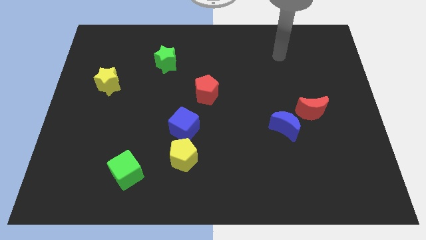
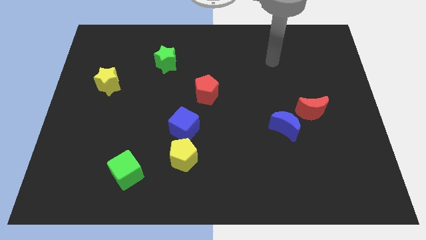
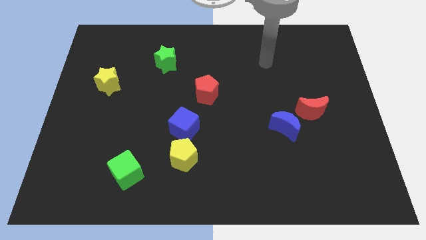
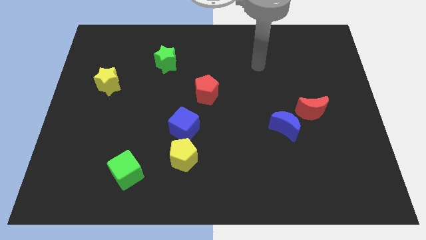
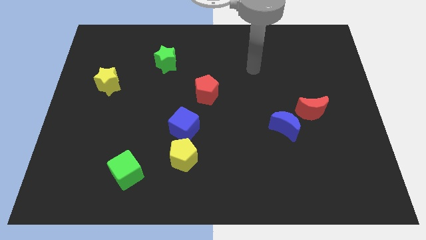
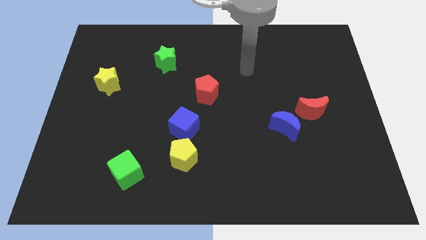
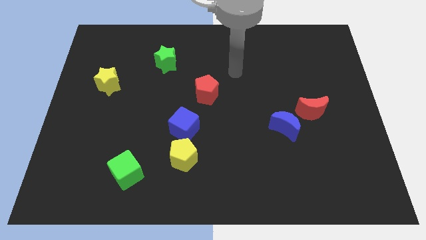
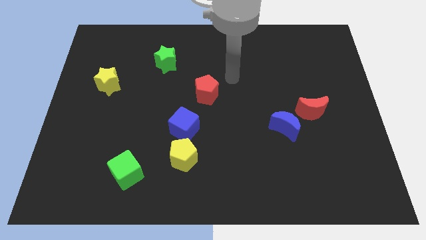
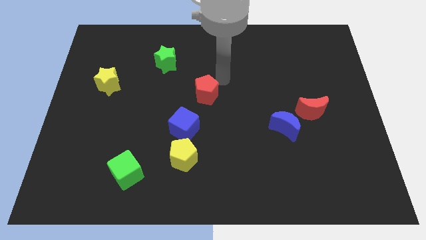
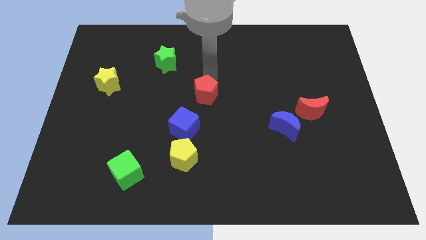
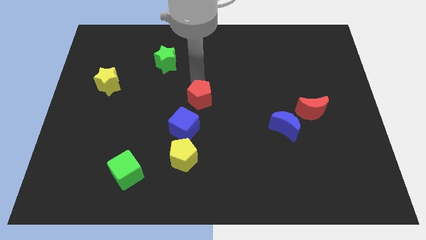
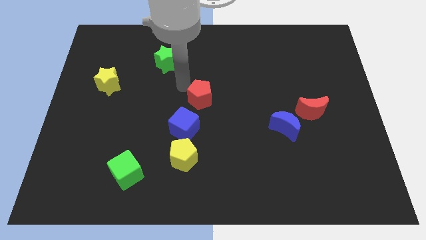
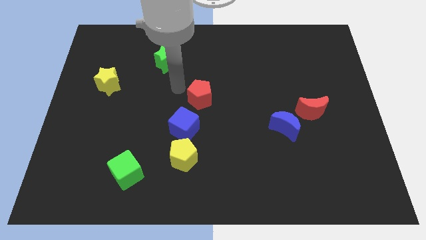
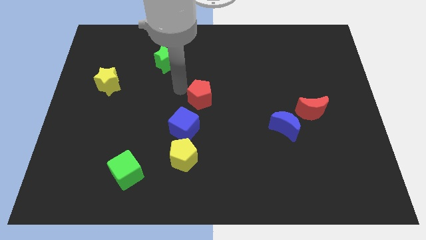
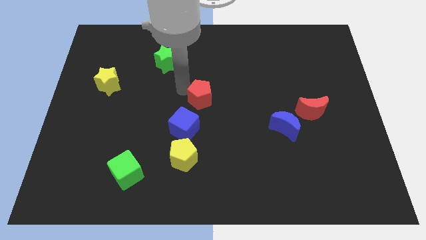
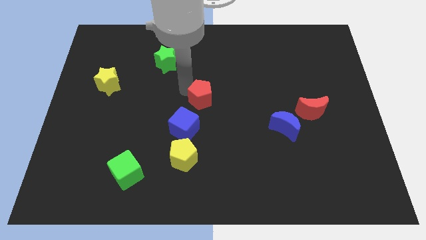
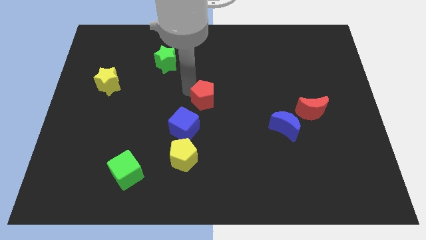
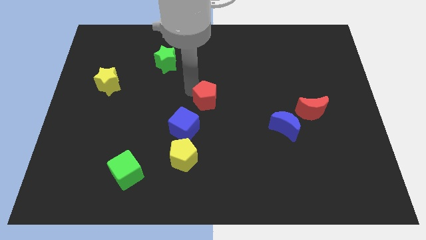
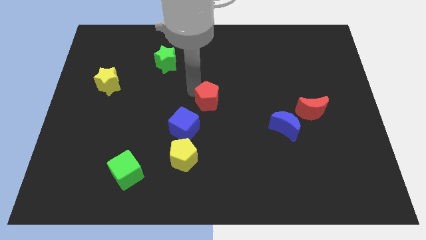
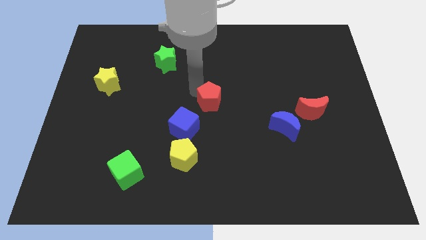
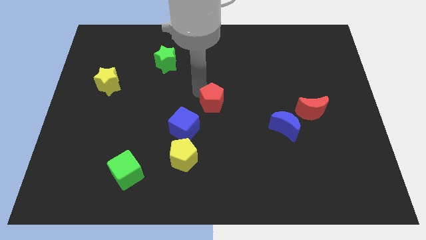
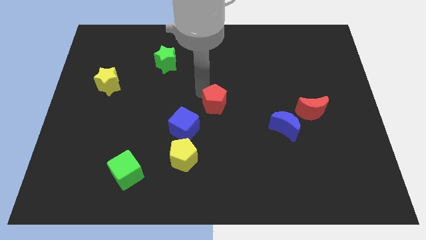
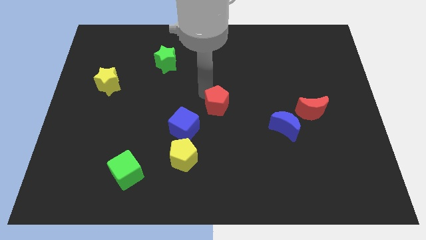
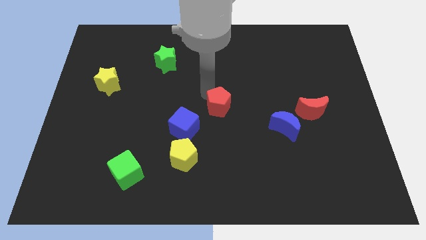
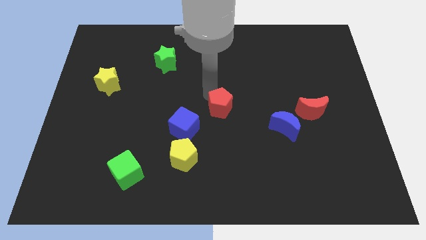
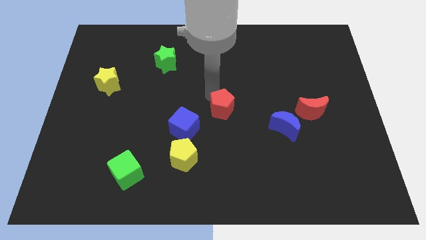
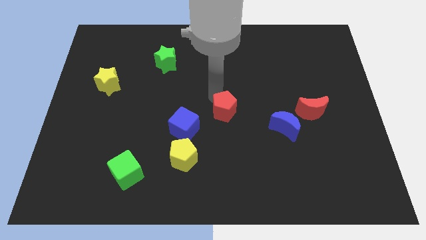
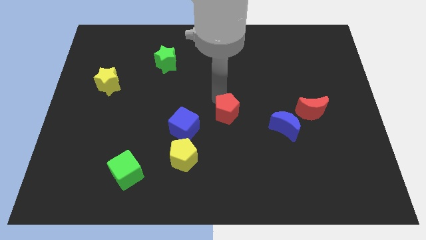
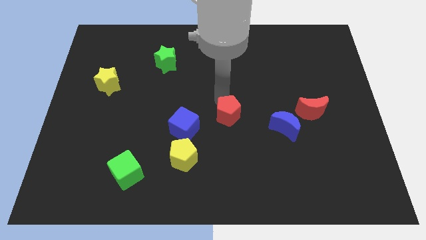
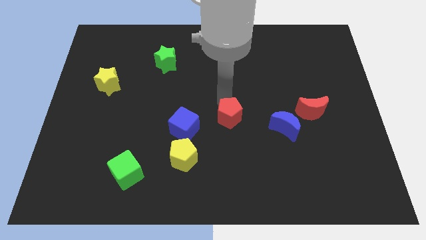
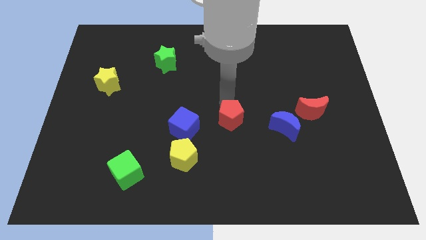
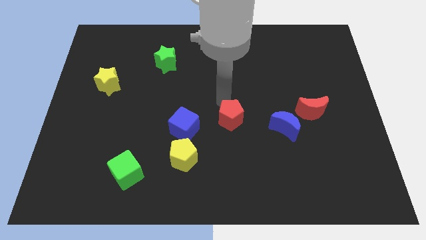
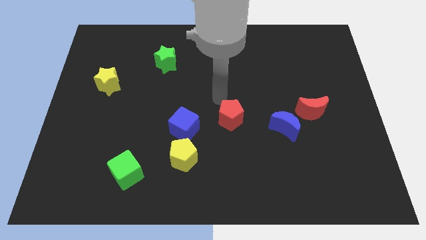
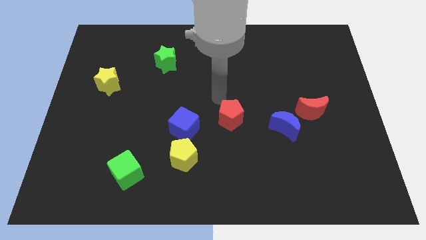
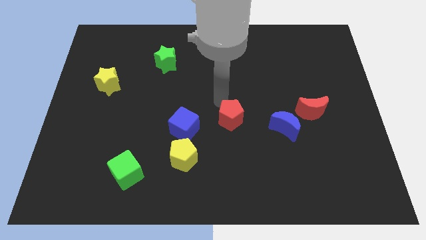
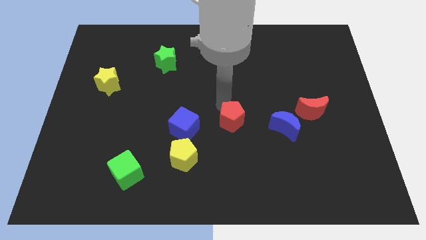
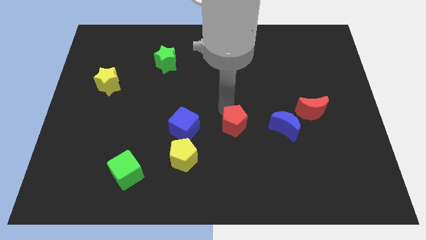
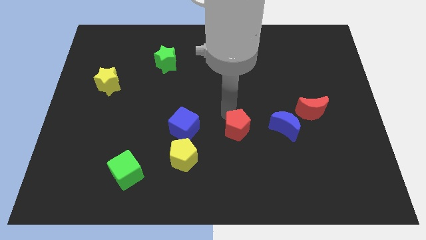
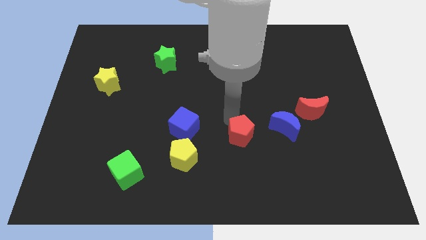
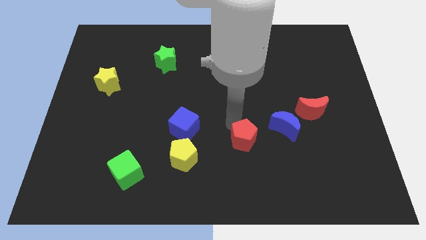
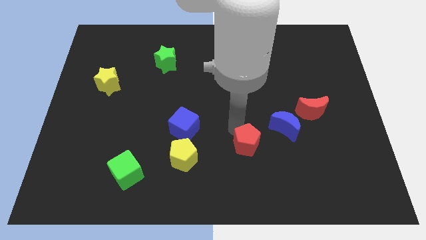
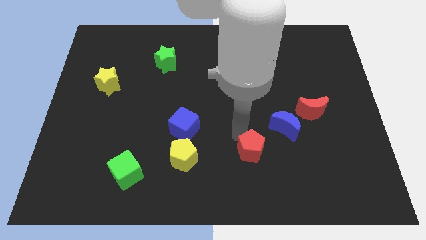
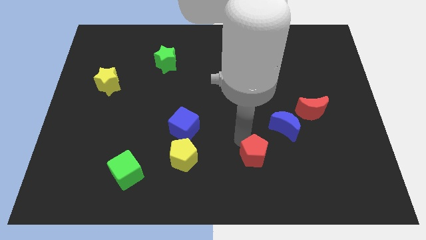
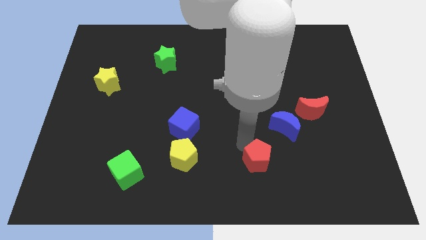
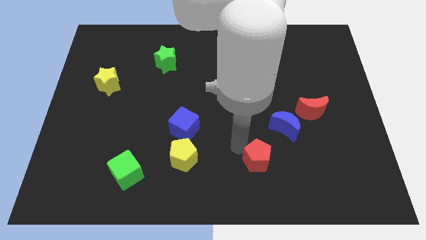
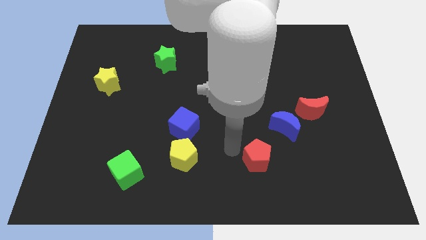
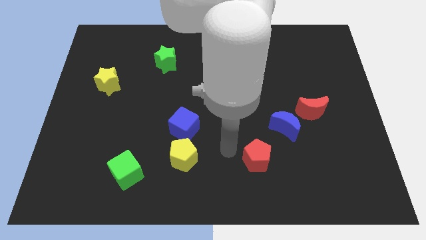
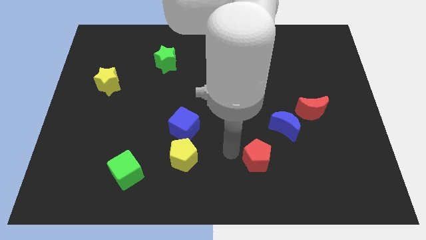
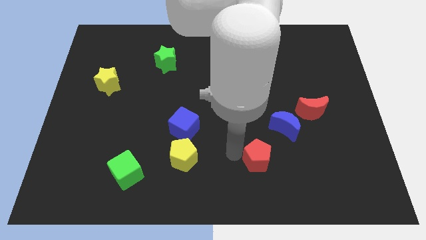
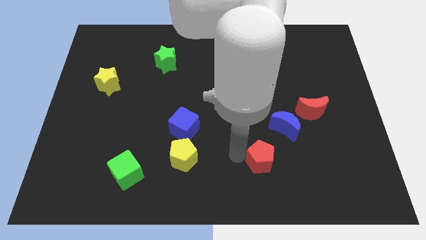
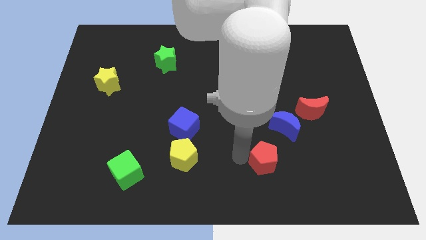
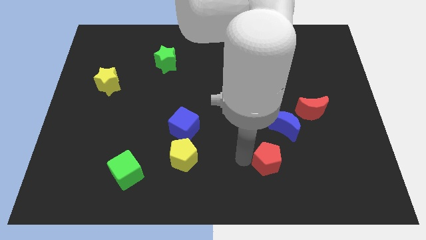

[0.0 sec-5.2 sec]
move the red pentagon to the bottom of the blue moon

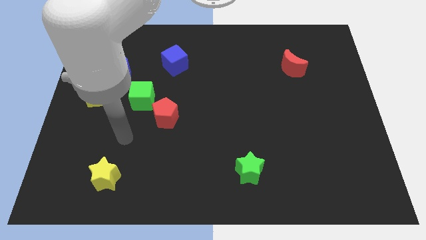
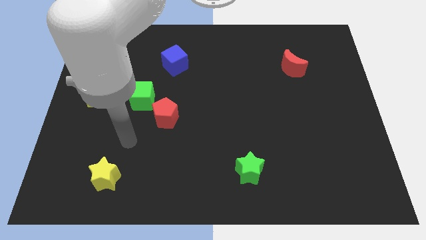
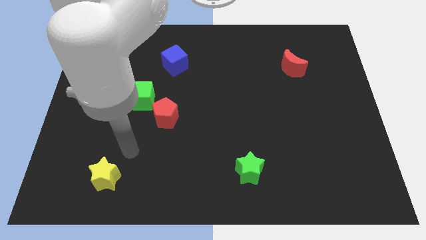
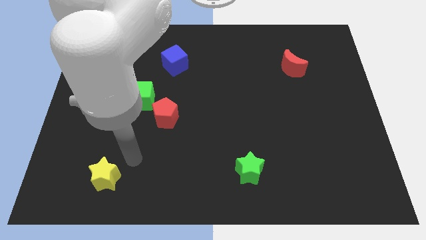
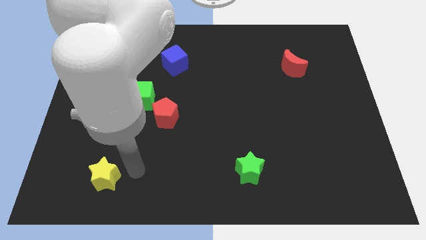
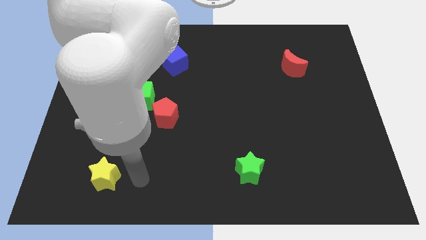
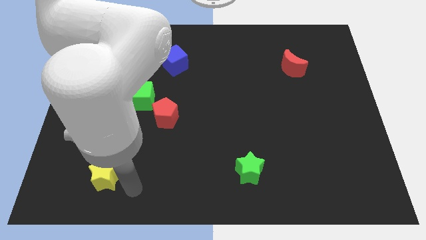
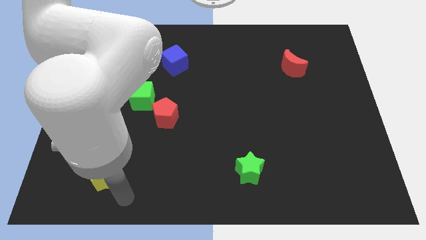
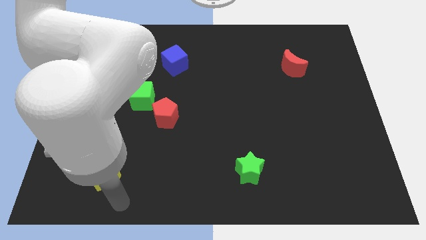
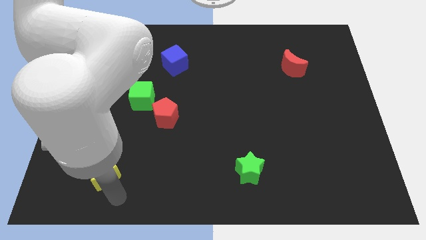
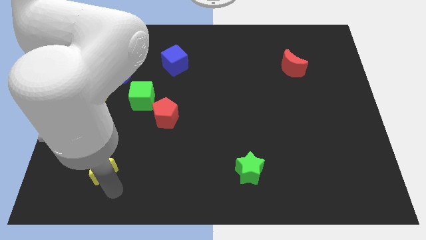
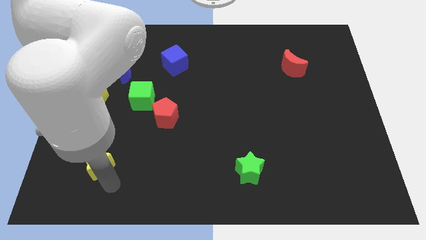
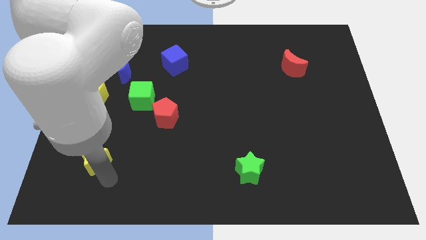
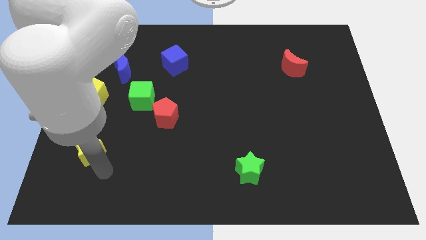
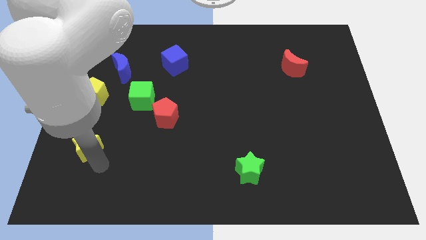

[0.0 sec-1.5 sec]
put the yellow star to the bottom of the yellow pentagon

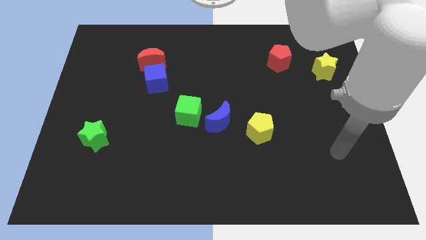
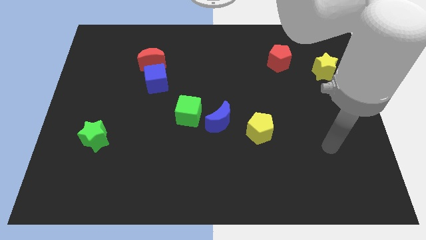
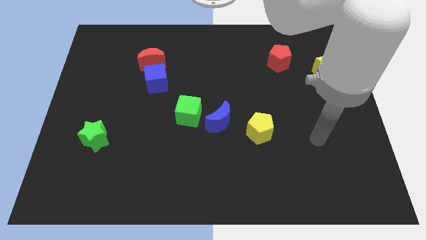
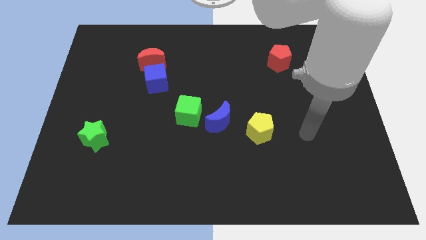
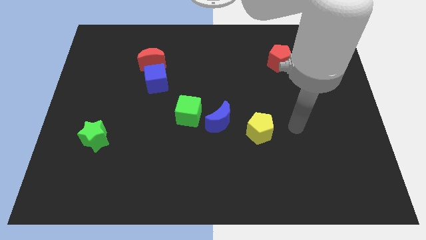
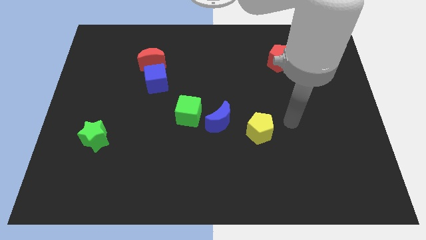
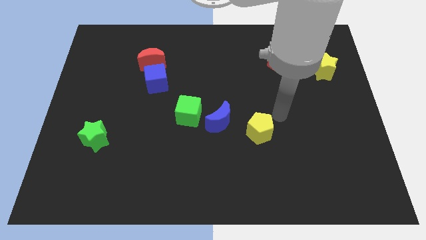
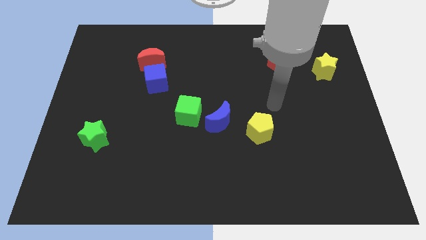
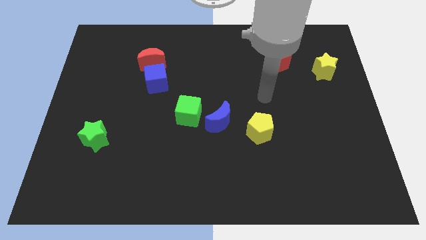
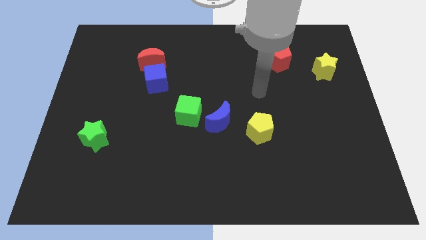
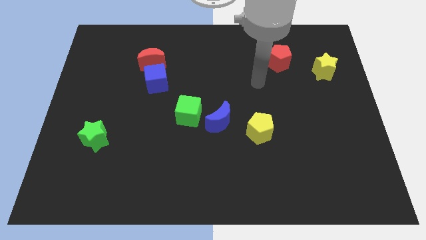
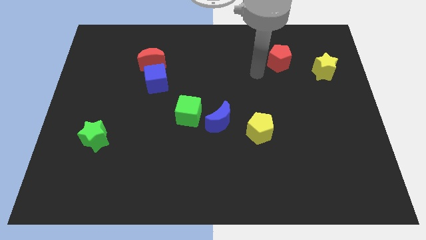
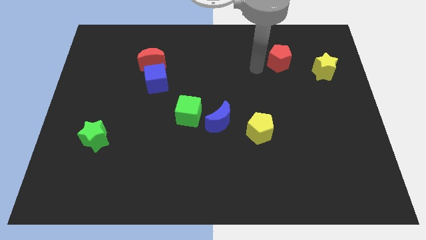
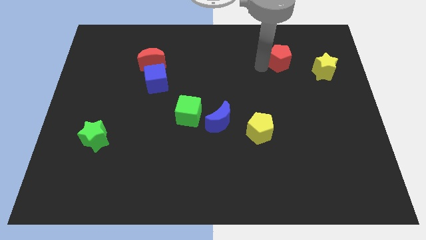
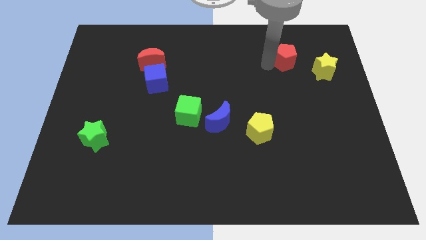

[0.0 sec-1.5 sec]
slide the red pentagon to the top left side of the yellow star
